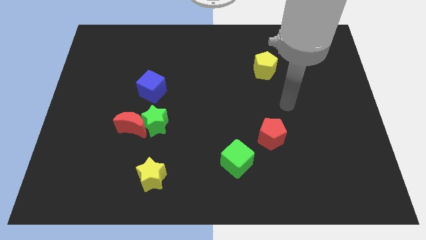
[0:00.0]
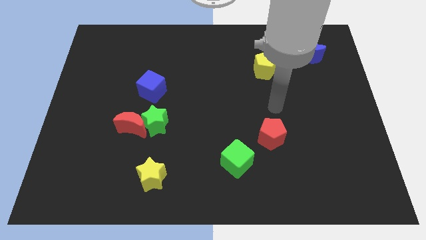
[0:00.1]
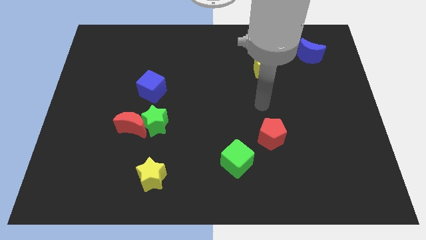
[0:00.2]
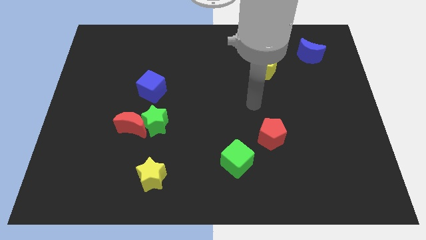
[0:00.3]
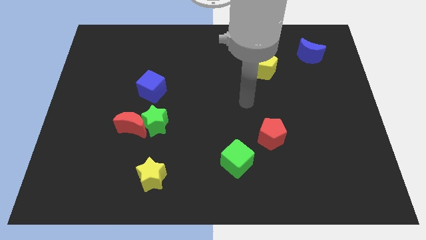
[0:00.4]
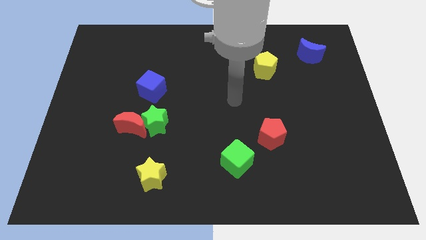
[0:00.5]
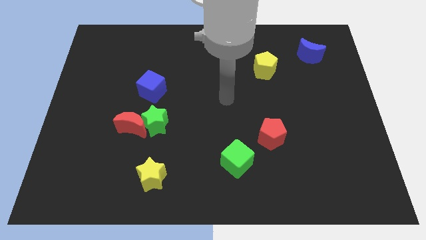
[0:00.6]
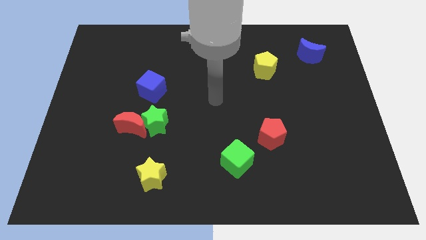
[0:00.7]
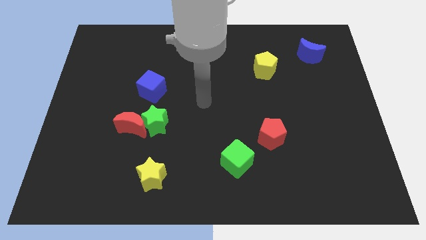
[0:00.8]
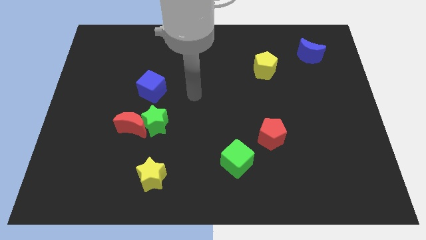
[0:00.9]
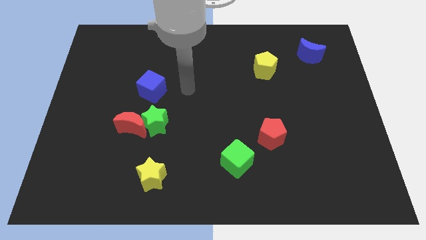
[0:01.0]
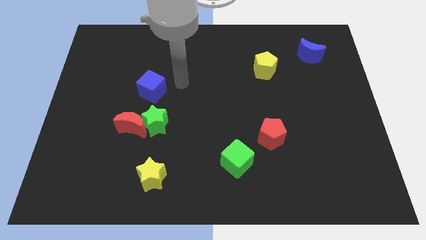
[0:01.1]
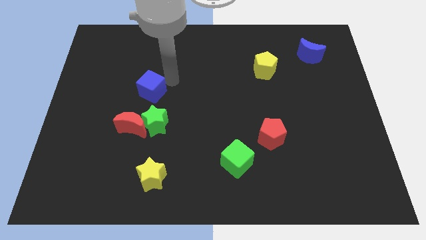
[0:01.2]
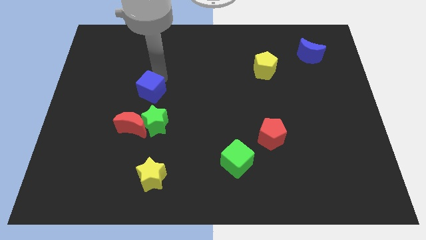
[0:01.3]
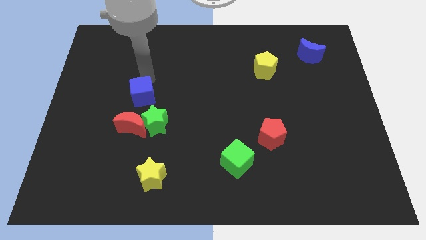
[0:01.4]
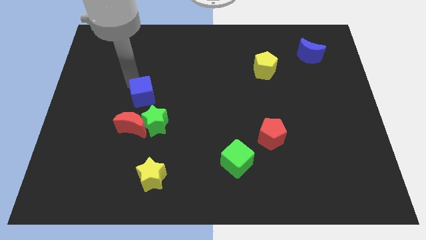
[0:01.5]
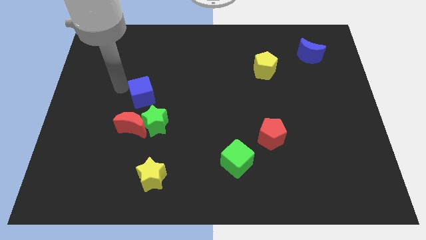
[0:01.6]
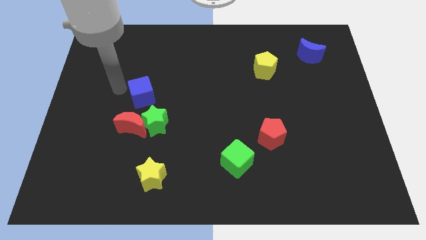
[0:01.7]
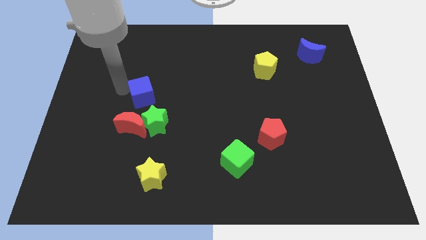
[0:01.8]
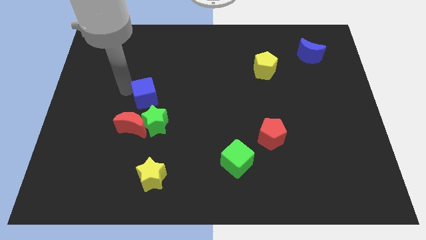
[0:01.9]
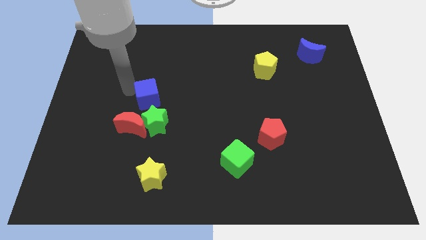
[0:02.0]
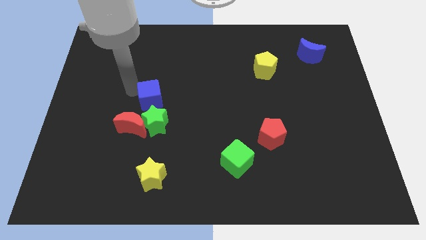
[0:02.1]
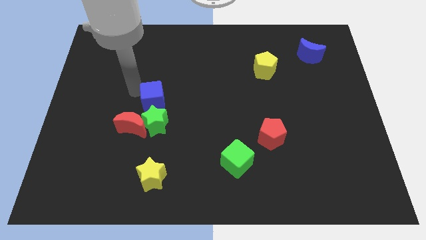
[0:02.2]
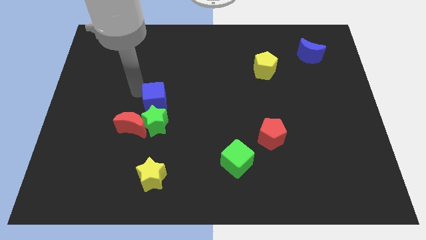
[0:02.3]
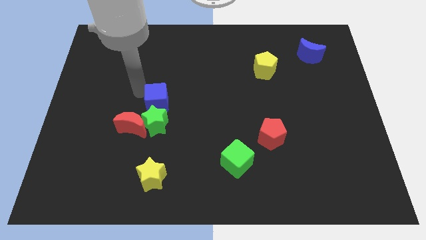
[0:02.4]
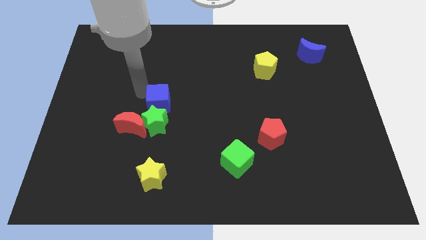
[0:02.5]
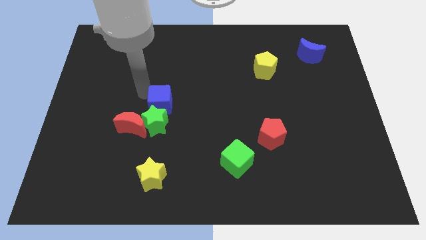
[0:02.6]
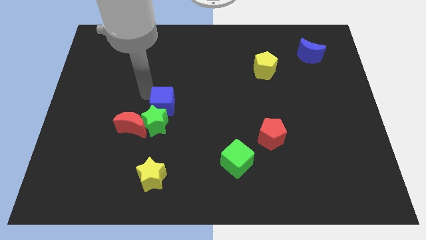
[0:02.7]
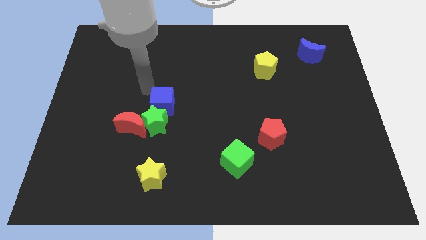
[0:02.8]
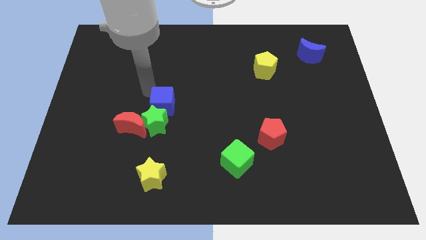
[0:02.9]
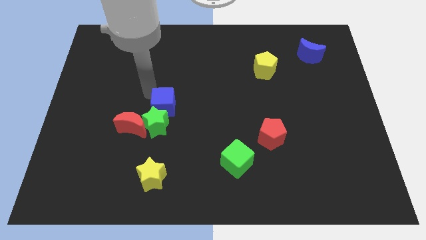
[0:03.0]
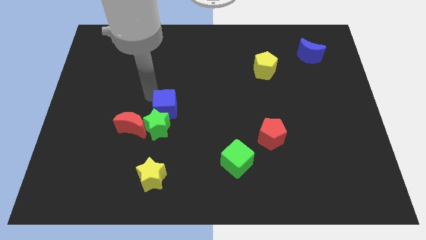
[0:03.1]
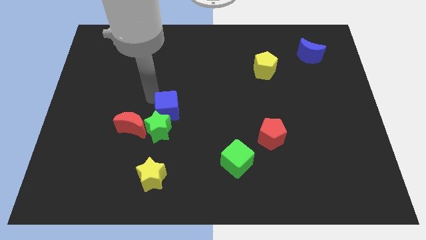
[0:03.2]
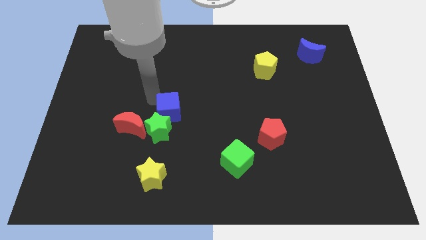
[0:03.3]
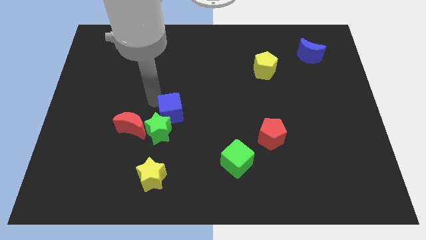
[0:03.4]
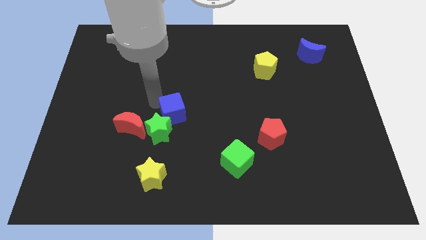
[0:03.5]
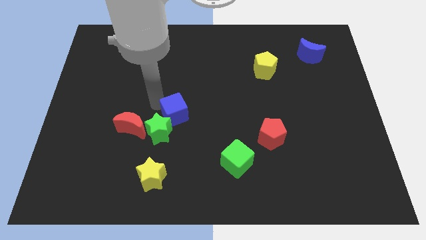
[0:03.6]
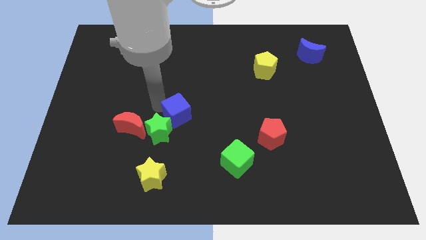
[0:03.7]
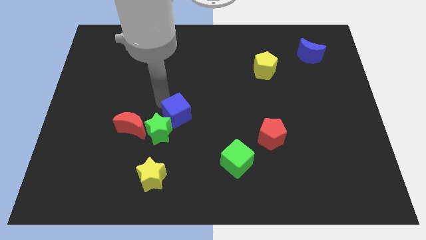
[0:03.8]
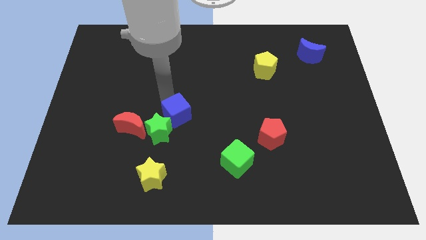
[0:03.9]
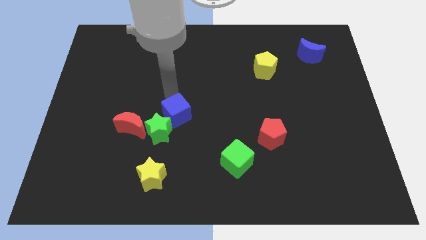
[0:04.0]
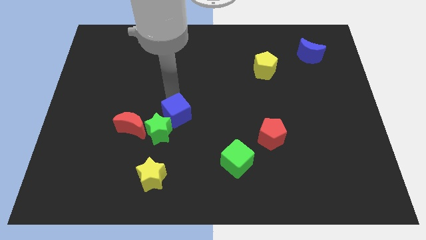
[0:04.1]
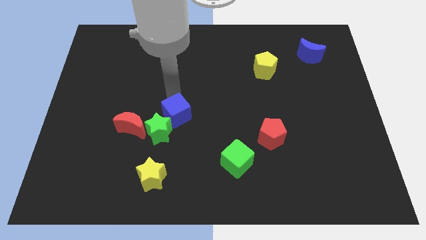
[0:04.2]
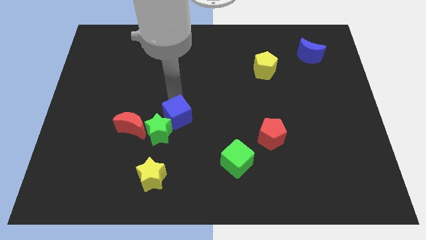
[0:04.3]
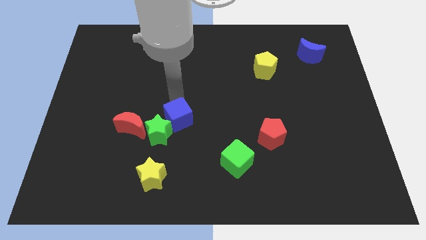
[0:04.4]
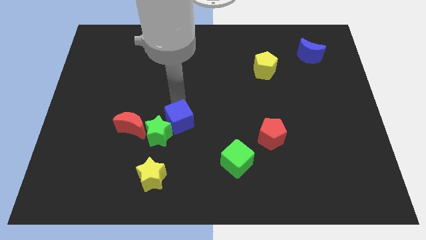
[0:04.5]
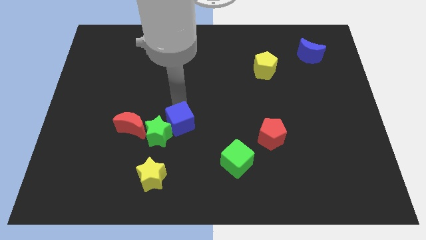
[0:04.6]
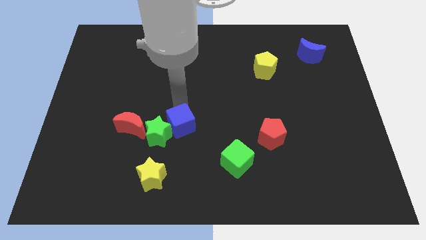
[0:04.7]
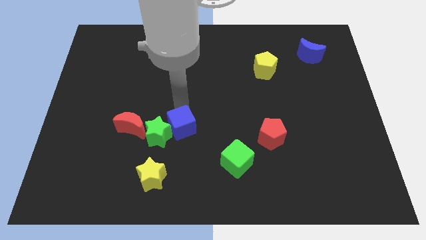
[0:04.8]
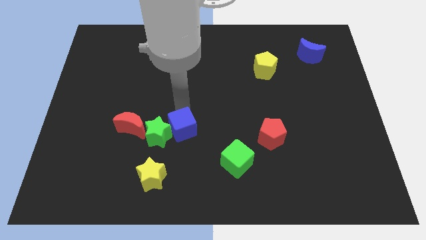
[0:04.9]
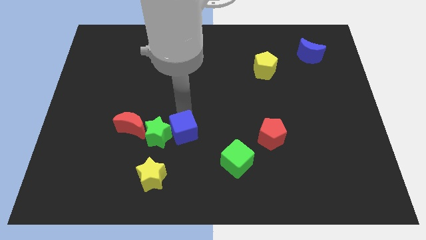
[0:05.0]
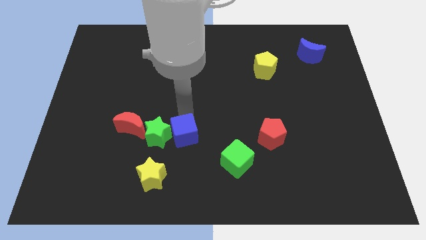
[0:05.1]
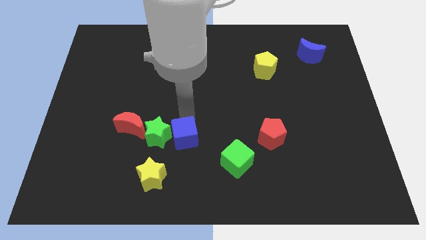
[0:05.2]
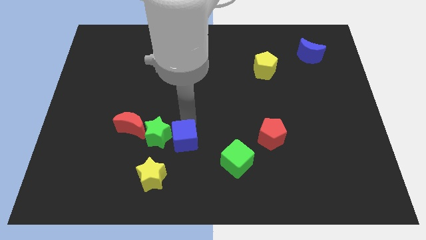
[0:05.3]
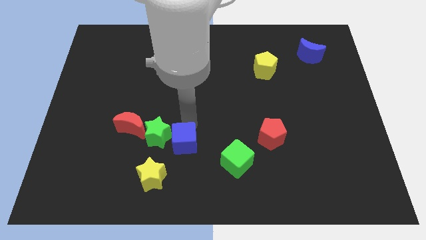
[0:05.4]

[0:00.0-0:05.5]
slide the blue cube to the left side of the green cube

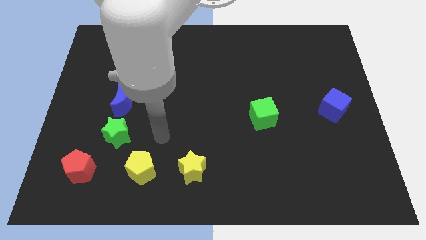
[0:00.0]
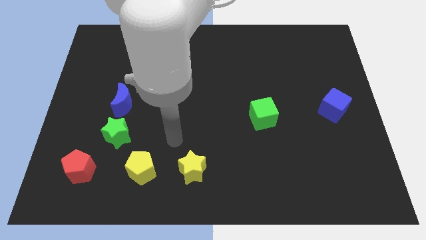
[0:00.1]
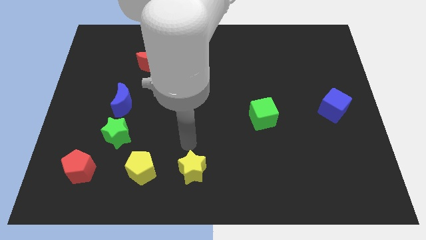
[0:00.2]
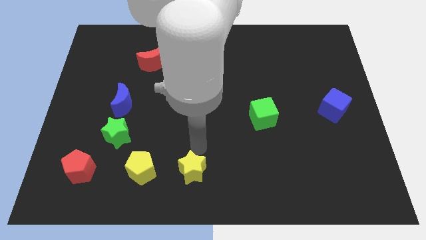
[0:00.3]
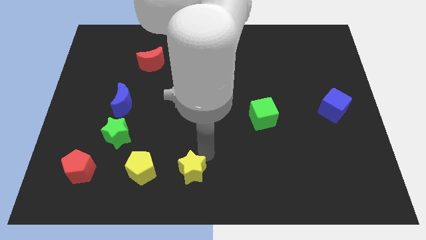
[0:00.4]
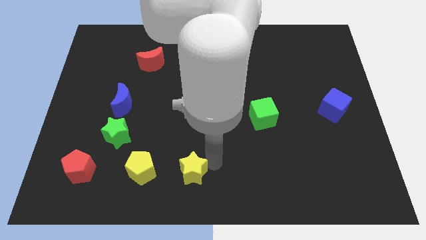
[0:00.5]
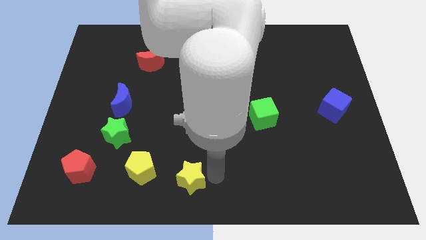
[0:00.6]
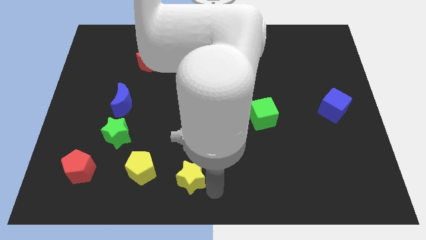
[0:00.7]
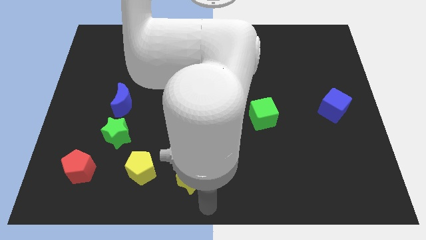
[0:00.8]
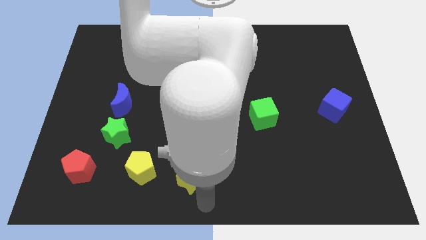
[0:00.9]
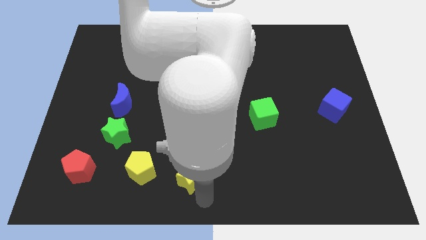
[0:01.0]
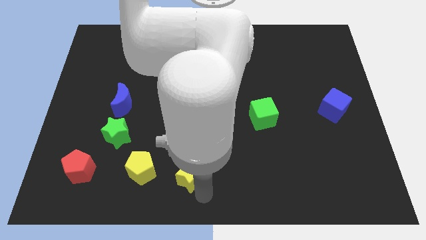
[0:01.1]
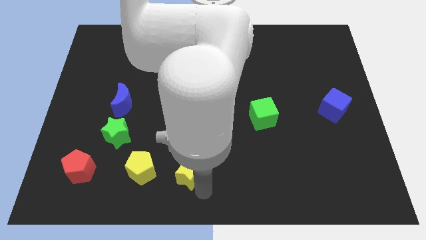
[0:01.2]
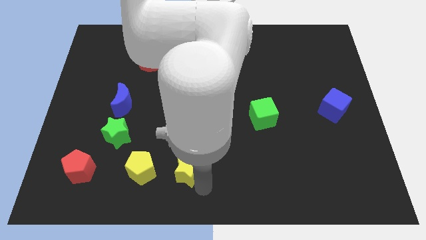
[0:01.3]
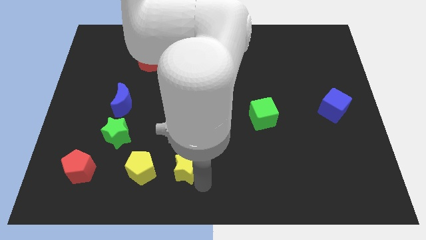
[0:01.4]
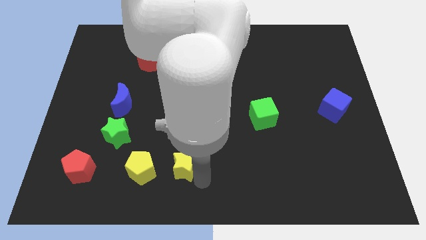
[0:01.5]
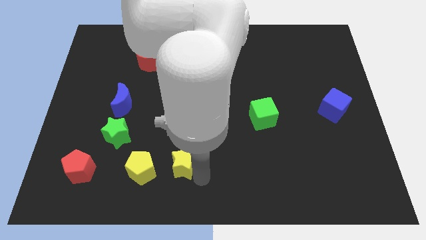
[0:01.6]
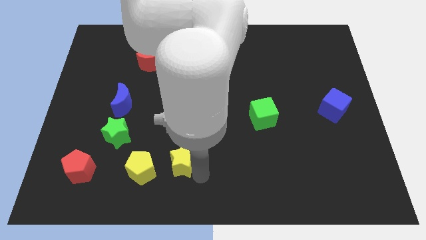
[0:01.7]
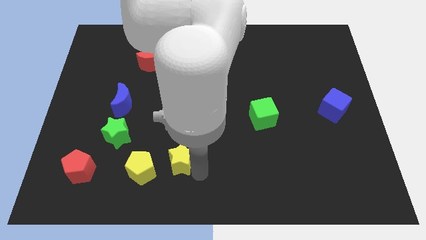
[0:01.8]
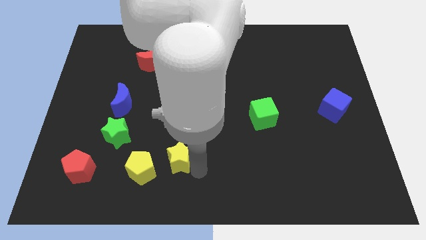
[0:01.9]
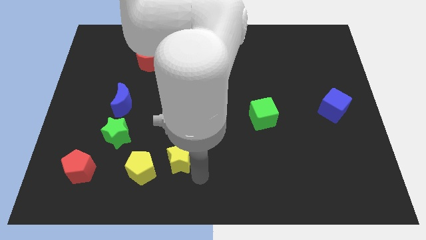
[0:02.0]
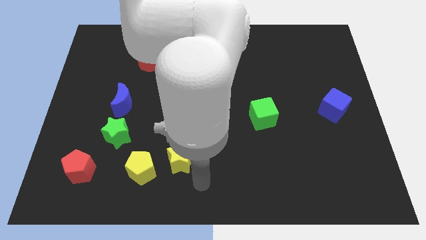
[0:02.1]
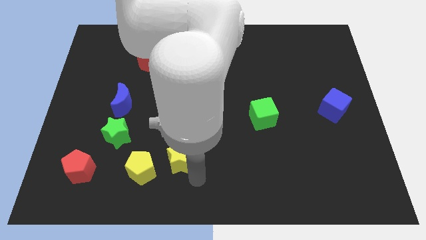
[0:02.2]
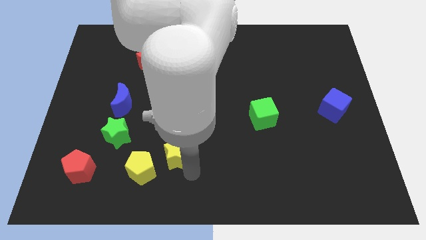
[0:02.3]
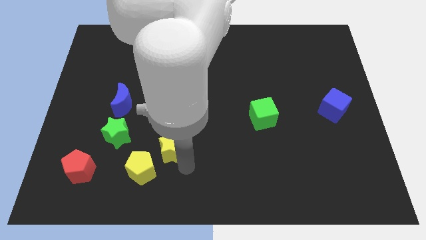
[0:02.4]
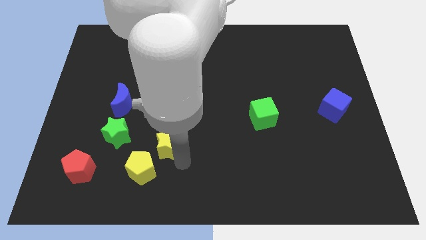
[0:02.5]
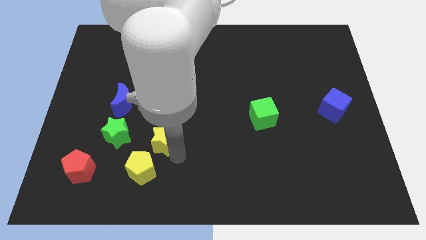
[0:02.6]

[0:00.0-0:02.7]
move the yellow star to the top of the yellow pentagon
